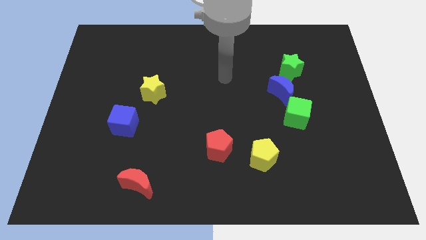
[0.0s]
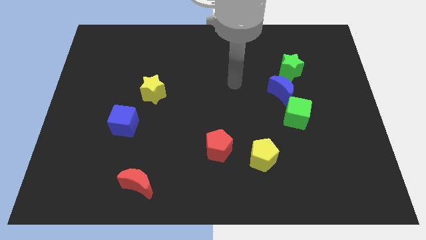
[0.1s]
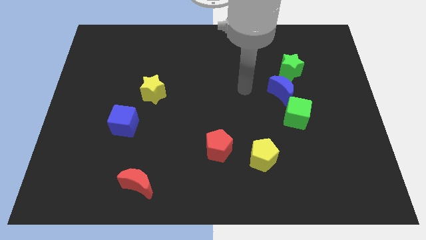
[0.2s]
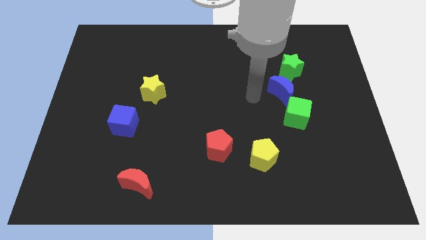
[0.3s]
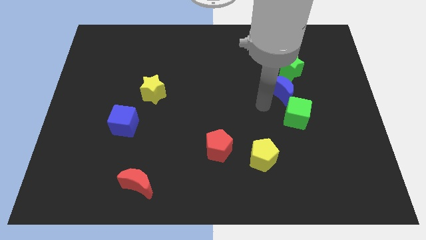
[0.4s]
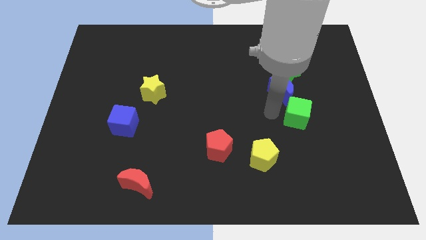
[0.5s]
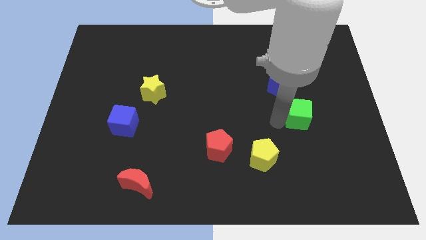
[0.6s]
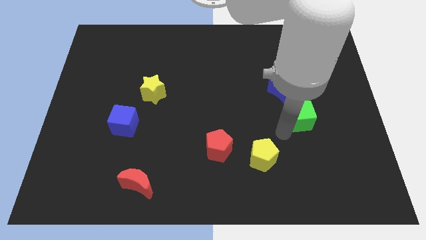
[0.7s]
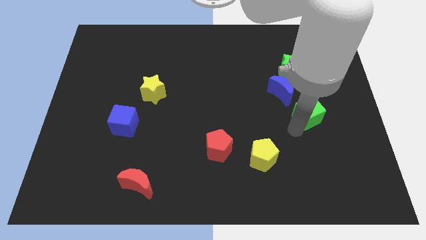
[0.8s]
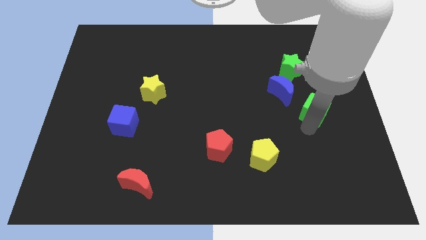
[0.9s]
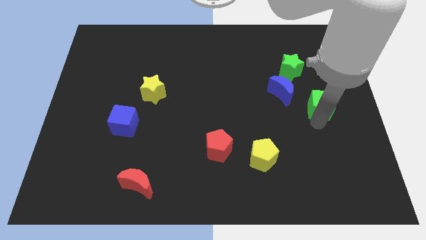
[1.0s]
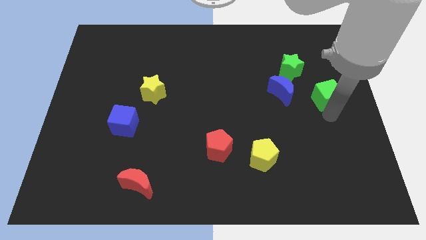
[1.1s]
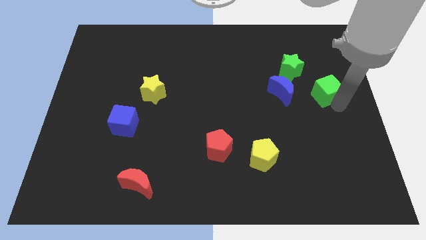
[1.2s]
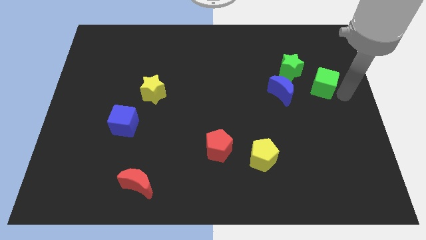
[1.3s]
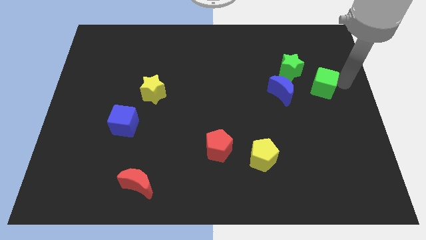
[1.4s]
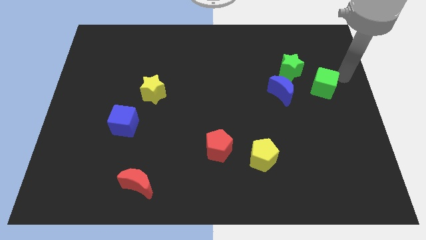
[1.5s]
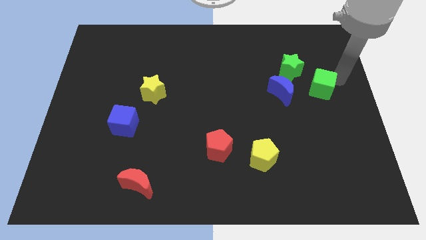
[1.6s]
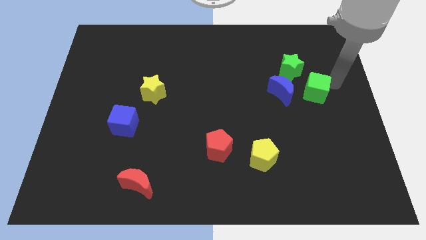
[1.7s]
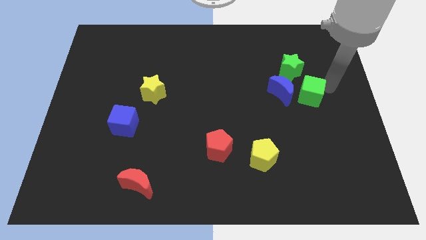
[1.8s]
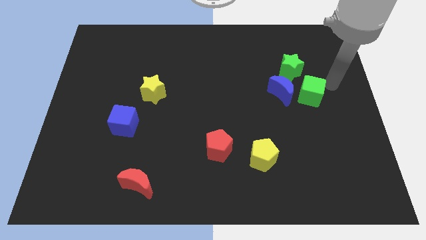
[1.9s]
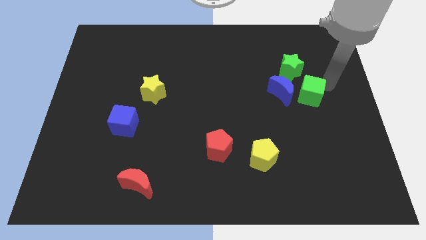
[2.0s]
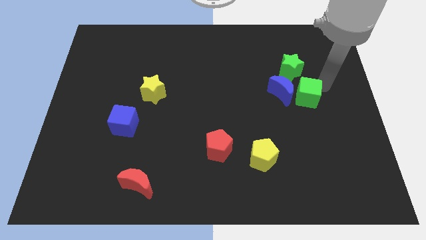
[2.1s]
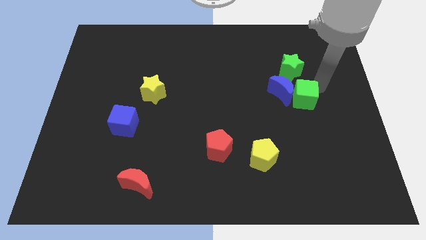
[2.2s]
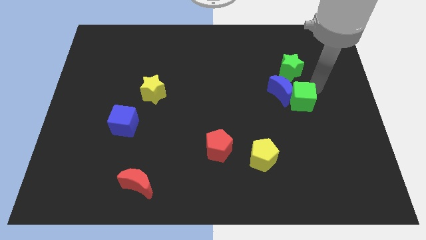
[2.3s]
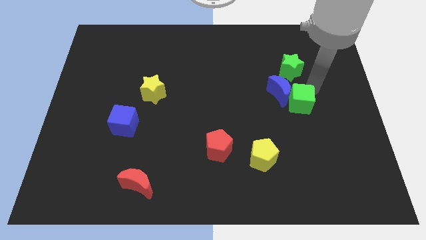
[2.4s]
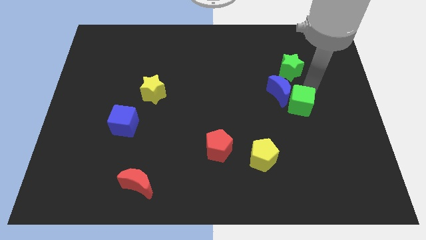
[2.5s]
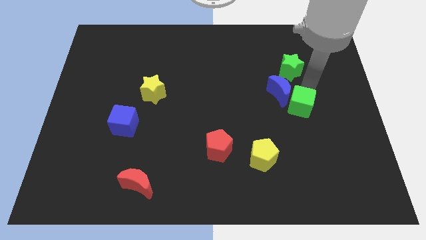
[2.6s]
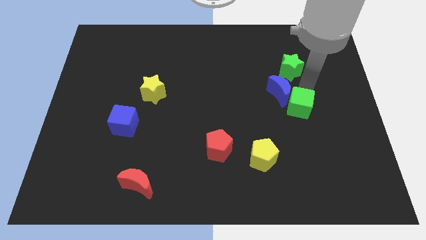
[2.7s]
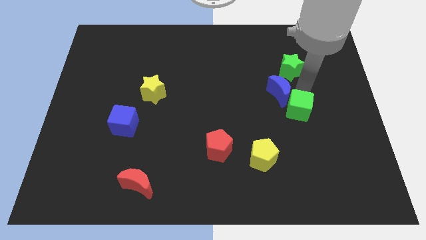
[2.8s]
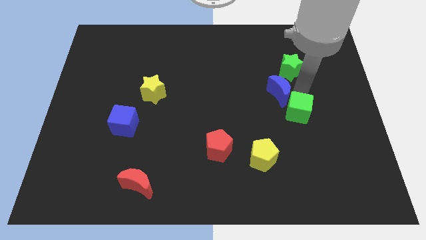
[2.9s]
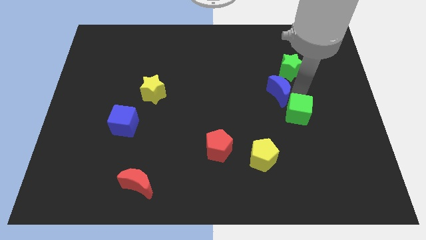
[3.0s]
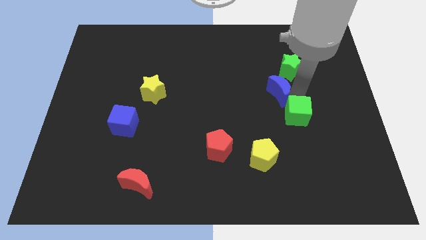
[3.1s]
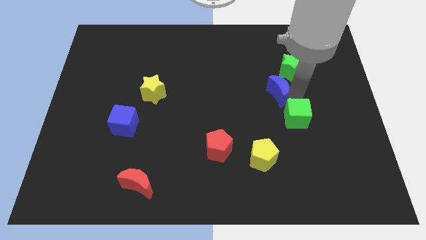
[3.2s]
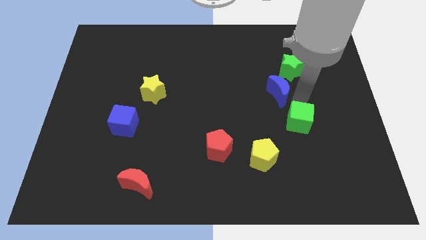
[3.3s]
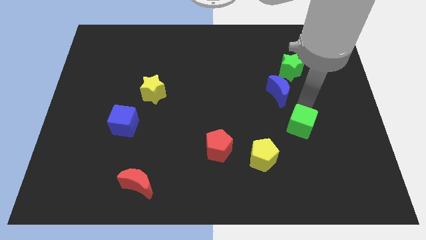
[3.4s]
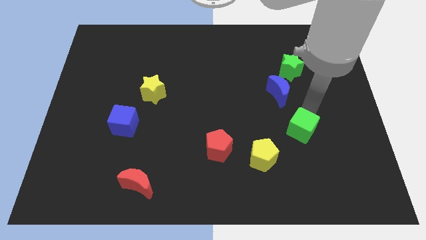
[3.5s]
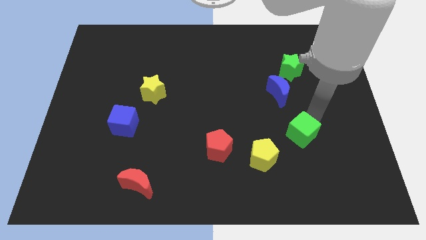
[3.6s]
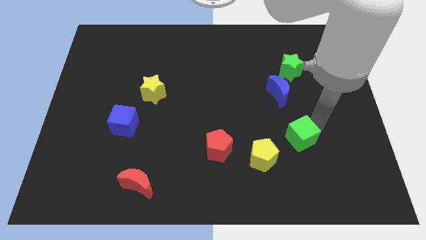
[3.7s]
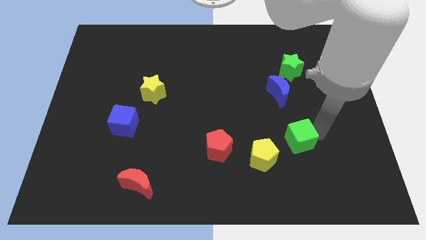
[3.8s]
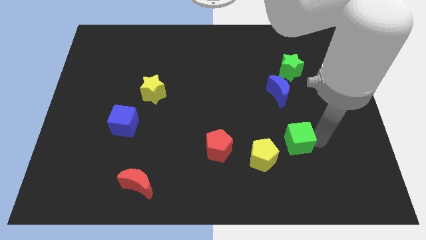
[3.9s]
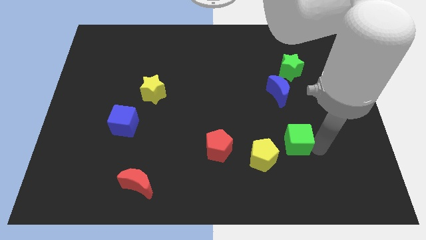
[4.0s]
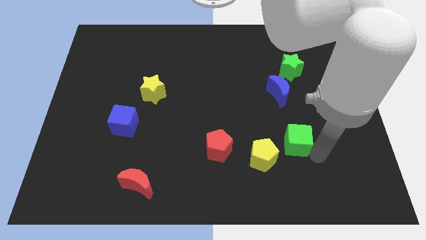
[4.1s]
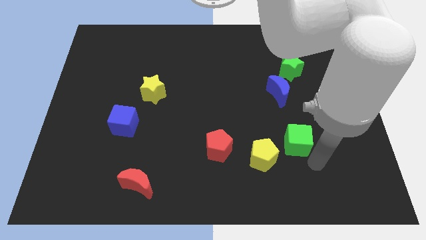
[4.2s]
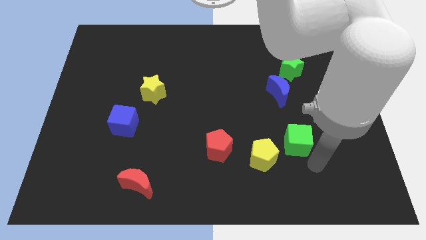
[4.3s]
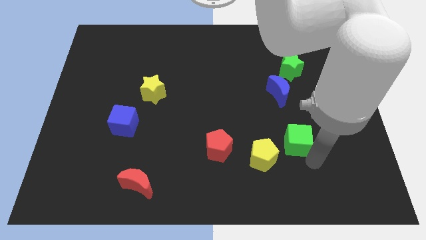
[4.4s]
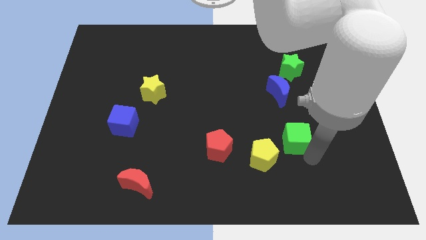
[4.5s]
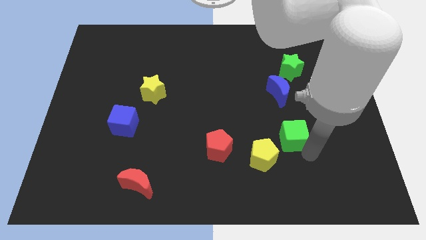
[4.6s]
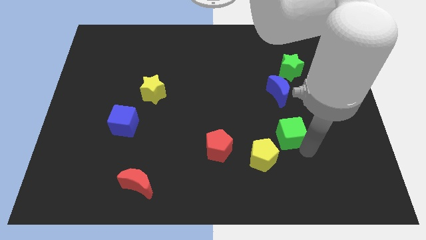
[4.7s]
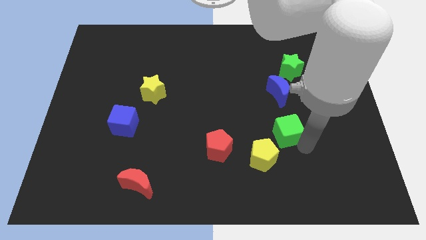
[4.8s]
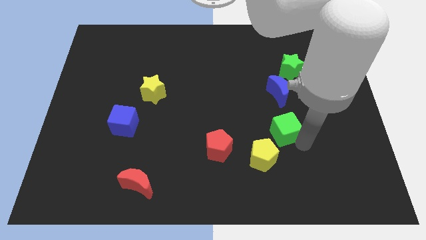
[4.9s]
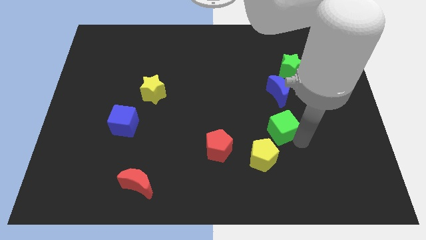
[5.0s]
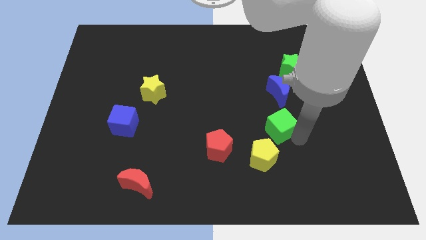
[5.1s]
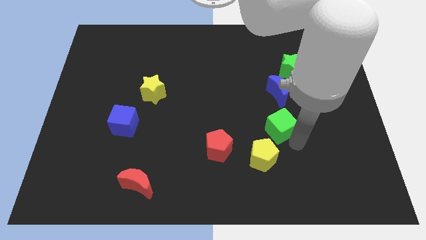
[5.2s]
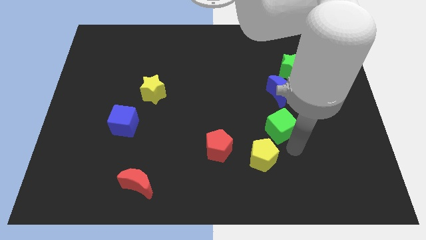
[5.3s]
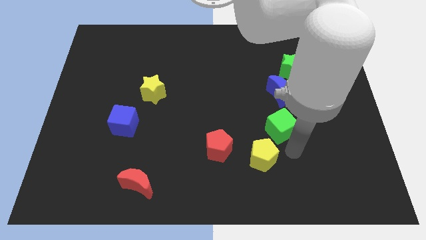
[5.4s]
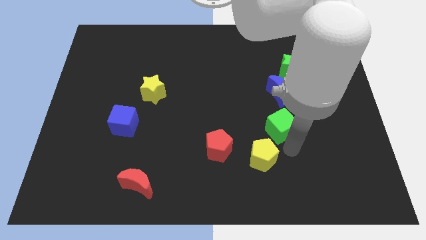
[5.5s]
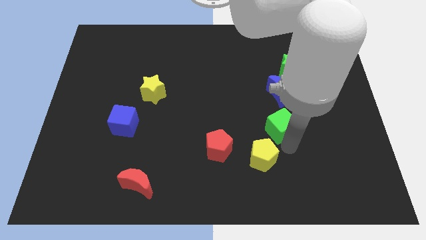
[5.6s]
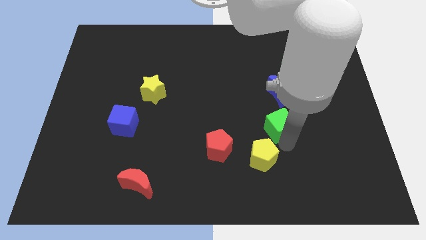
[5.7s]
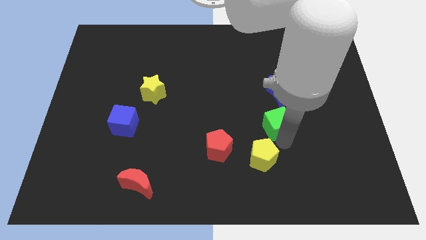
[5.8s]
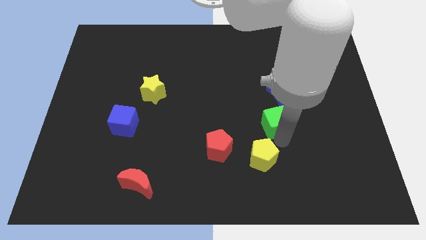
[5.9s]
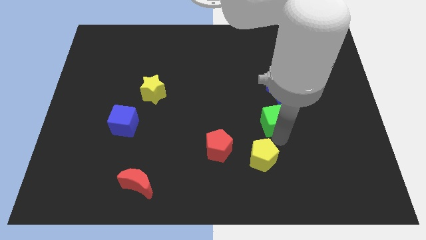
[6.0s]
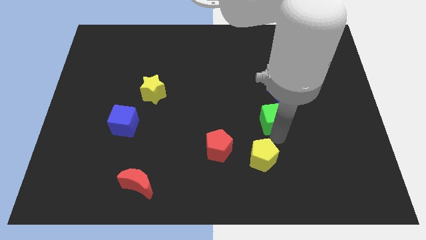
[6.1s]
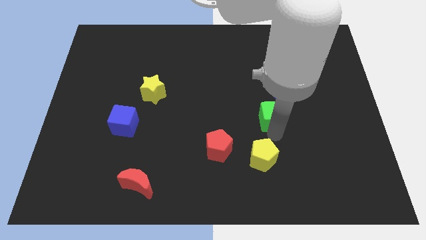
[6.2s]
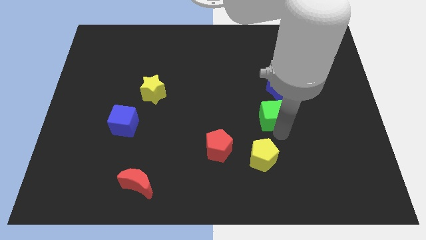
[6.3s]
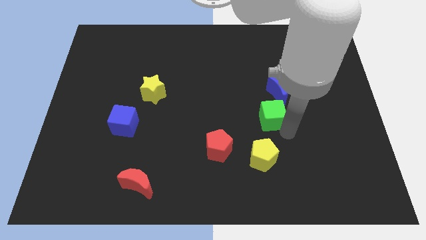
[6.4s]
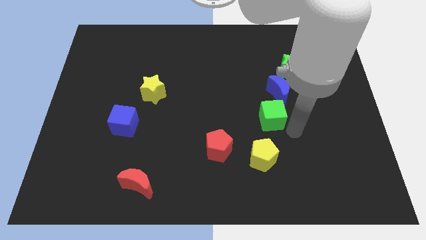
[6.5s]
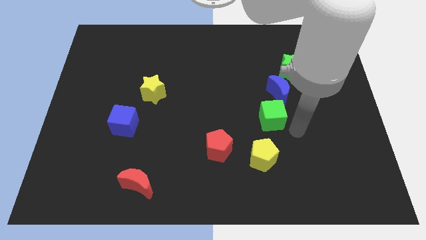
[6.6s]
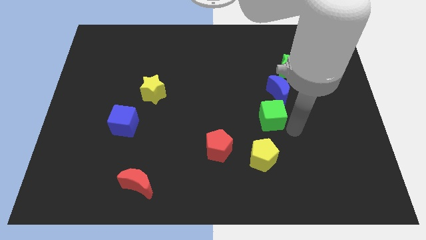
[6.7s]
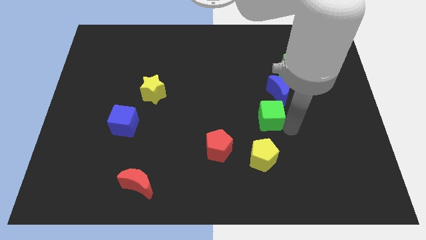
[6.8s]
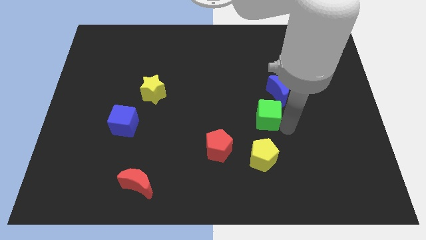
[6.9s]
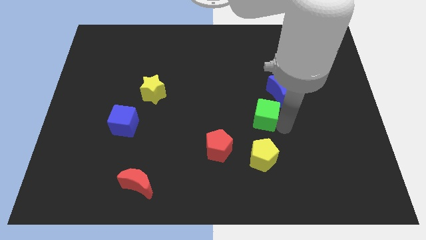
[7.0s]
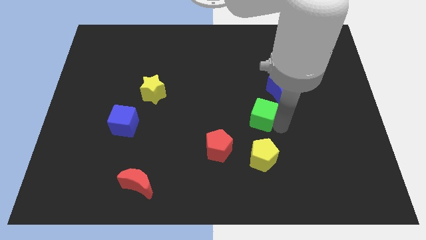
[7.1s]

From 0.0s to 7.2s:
push the green cube to the middle
